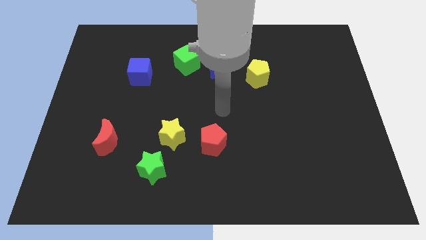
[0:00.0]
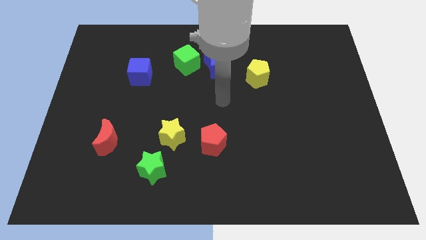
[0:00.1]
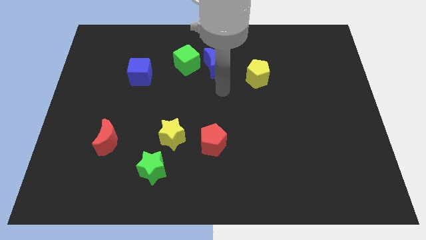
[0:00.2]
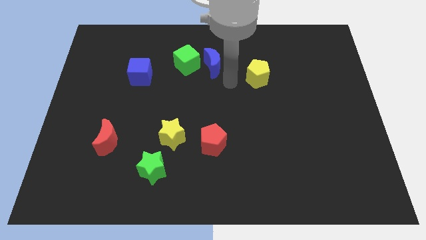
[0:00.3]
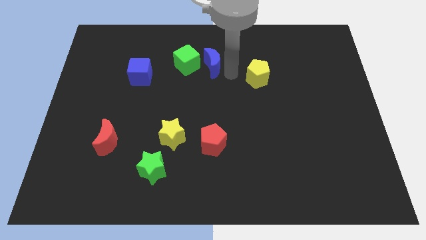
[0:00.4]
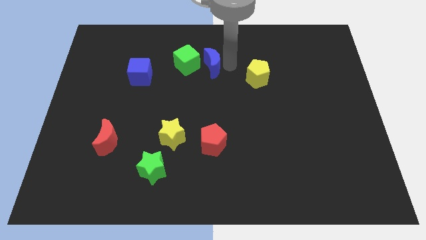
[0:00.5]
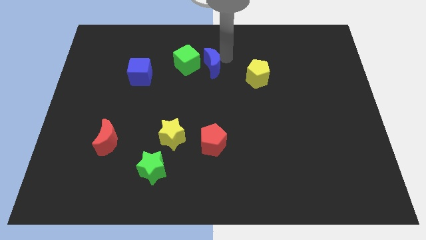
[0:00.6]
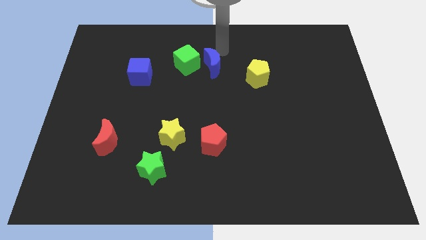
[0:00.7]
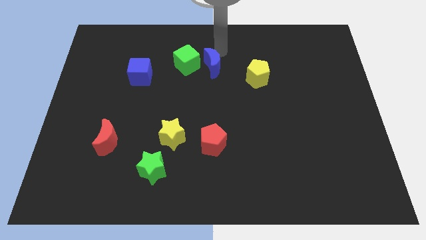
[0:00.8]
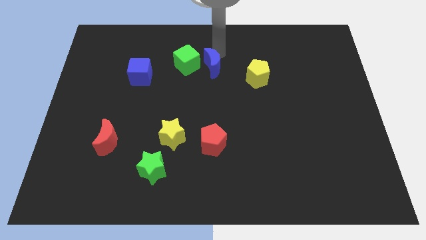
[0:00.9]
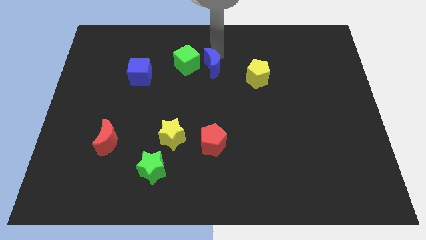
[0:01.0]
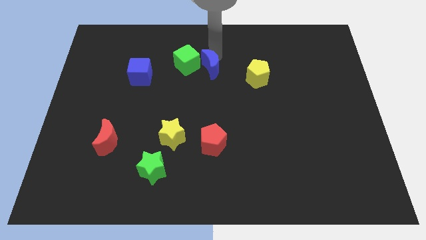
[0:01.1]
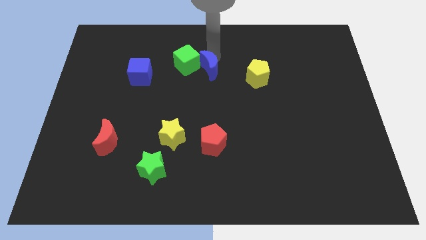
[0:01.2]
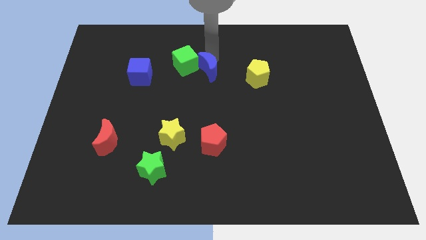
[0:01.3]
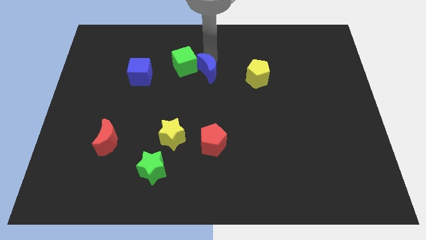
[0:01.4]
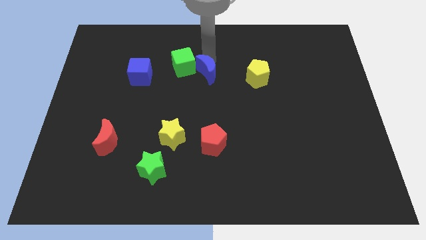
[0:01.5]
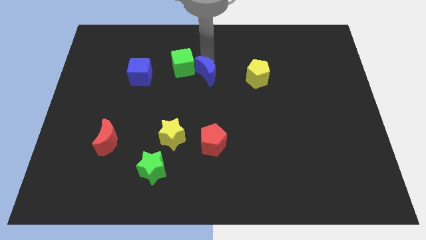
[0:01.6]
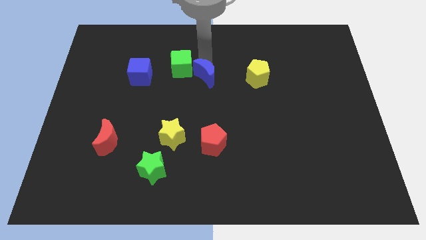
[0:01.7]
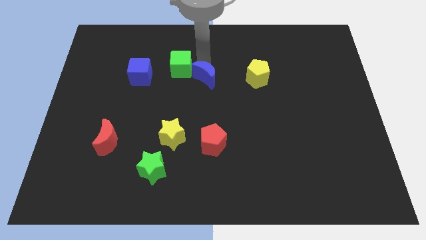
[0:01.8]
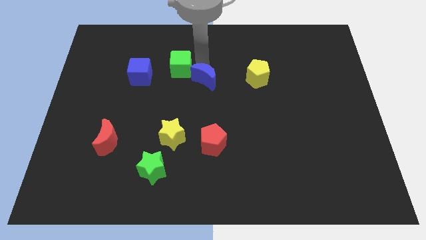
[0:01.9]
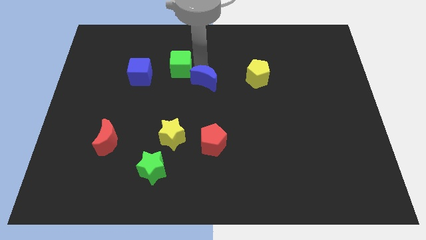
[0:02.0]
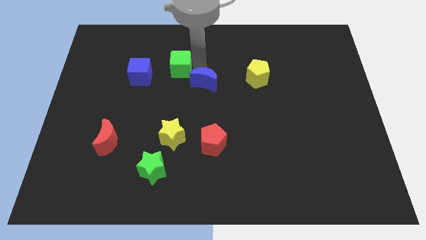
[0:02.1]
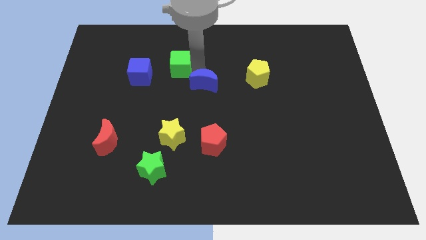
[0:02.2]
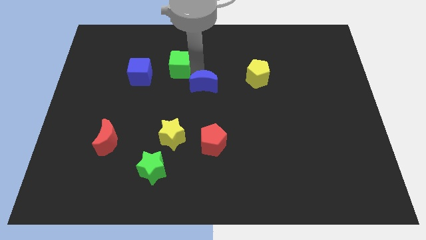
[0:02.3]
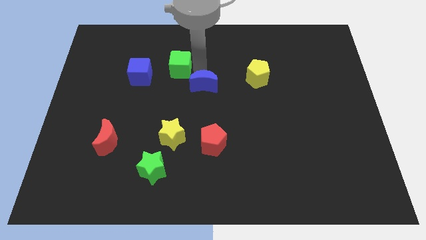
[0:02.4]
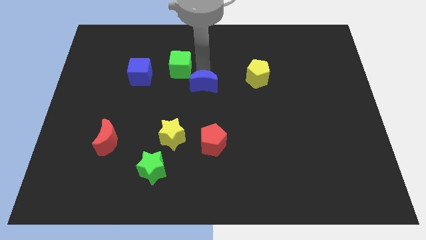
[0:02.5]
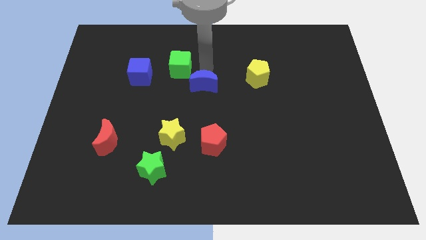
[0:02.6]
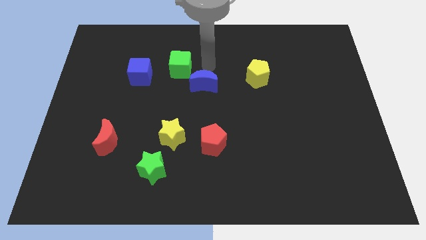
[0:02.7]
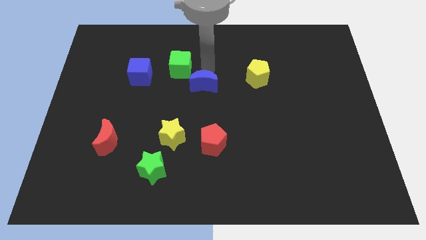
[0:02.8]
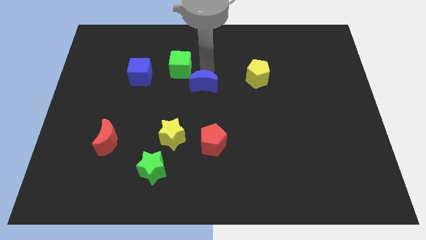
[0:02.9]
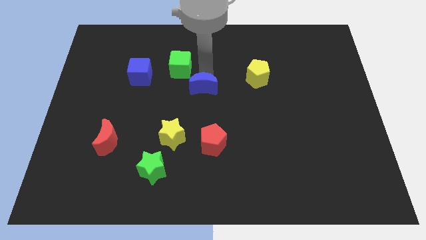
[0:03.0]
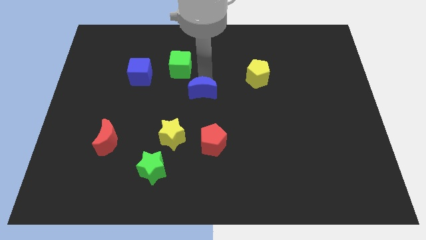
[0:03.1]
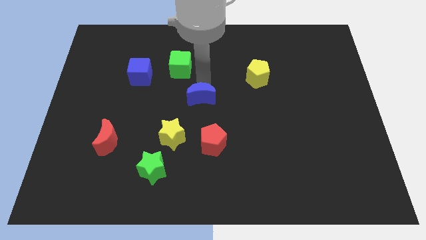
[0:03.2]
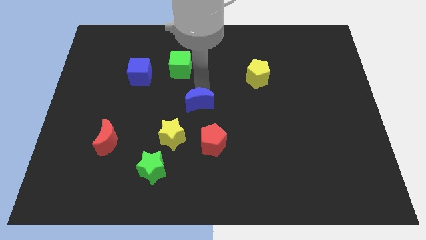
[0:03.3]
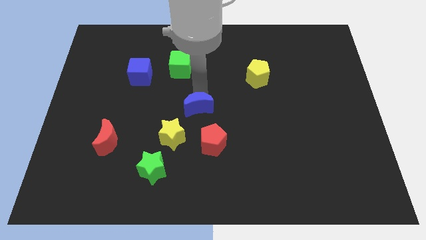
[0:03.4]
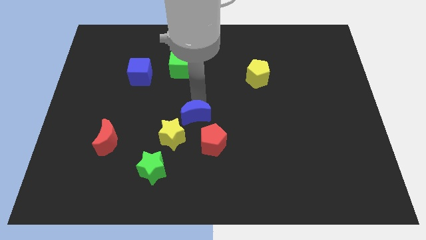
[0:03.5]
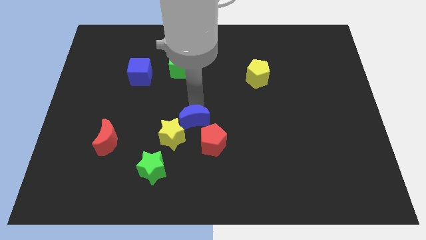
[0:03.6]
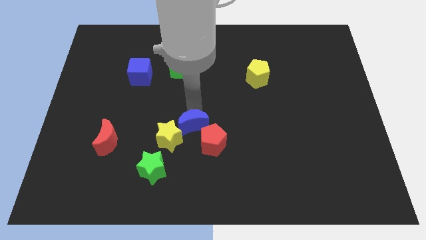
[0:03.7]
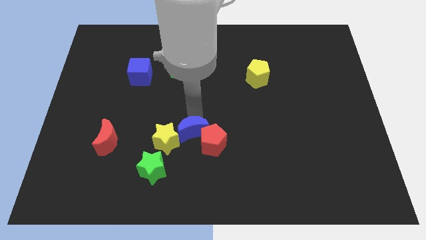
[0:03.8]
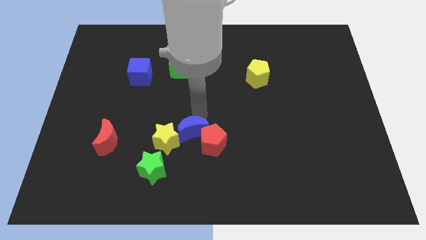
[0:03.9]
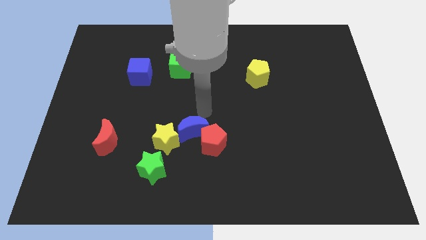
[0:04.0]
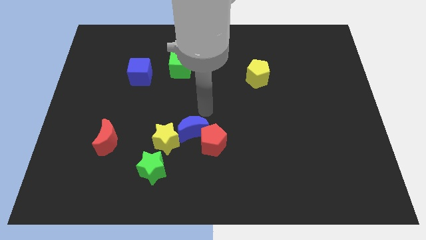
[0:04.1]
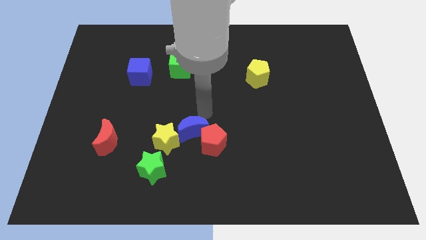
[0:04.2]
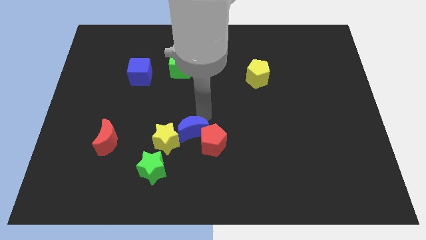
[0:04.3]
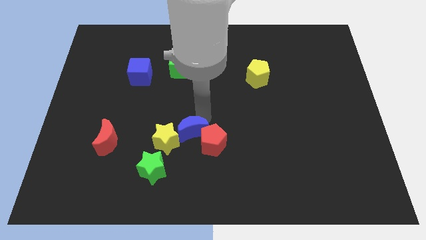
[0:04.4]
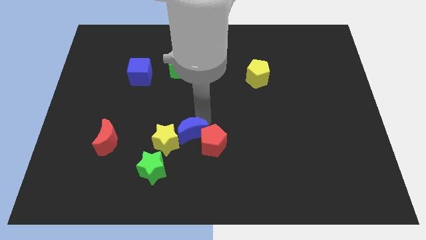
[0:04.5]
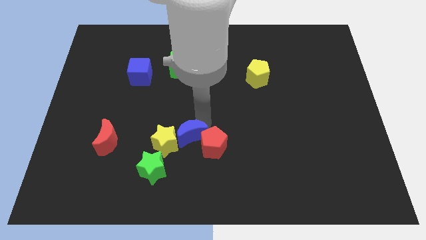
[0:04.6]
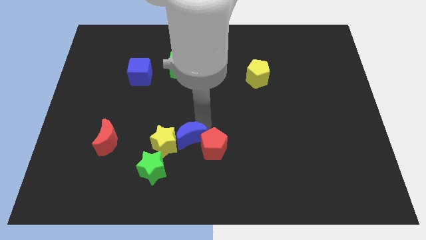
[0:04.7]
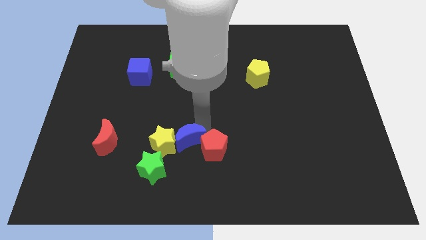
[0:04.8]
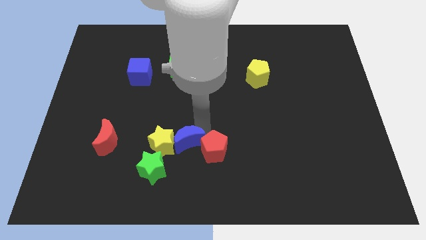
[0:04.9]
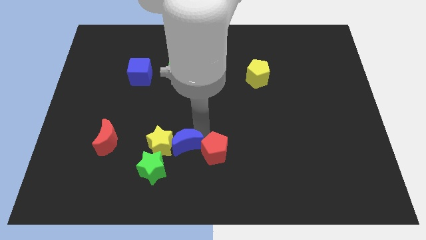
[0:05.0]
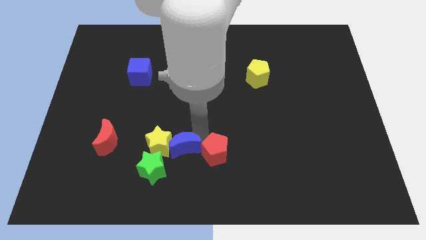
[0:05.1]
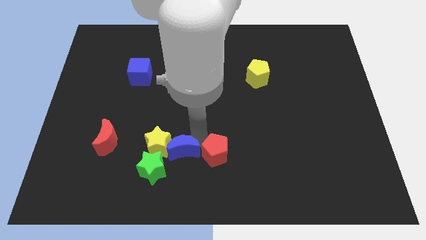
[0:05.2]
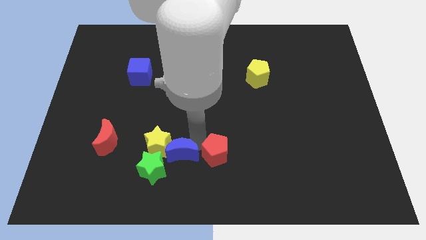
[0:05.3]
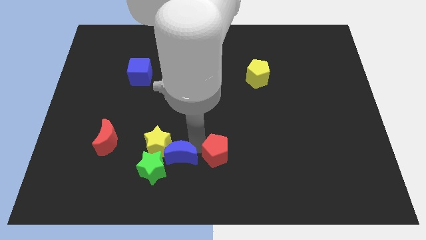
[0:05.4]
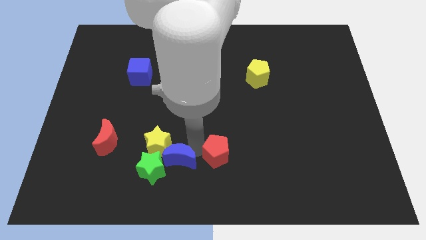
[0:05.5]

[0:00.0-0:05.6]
put the blue moon towards the green star

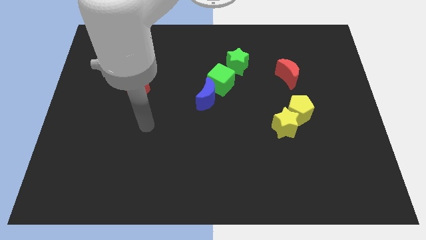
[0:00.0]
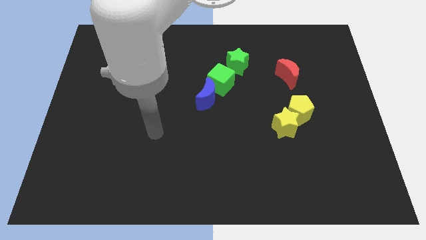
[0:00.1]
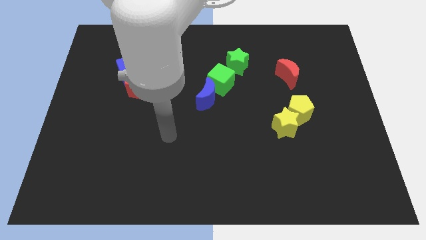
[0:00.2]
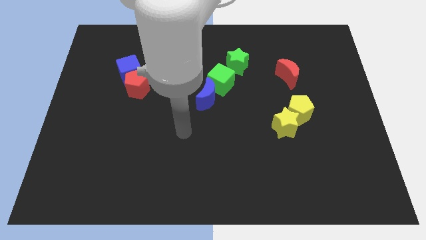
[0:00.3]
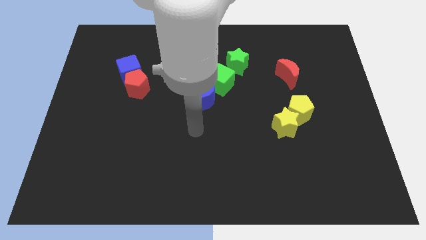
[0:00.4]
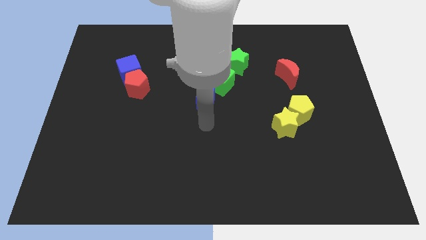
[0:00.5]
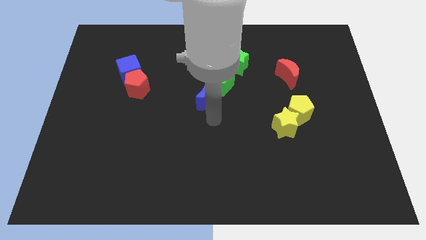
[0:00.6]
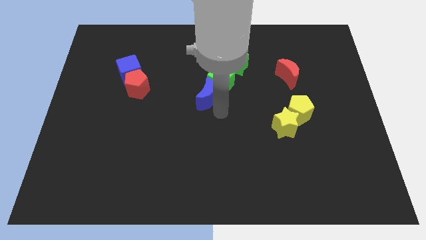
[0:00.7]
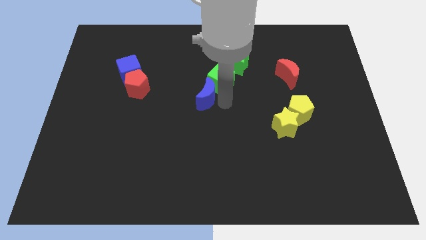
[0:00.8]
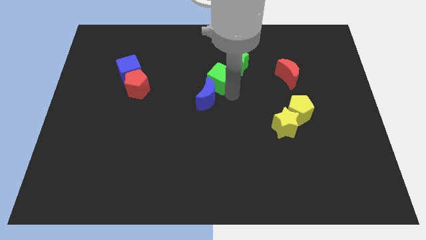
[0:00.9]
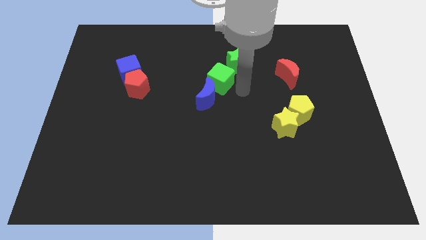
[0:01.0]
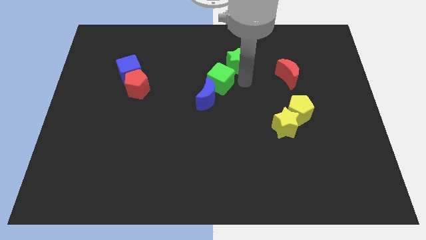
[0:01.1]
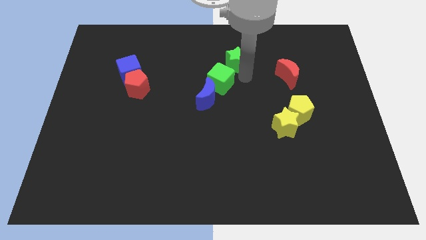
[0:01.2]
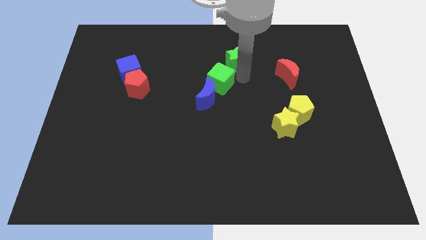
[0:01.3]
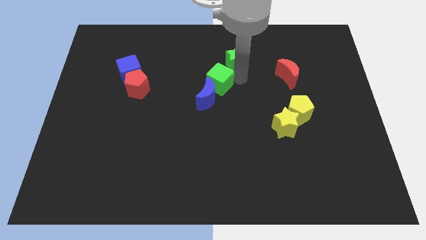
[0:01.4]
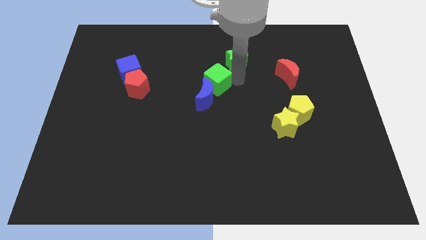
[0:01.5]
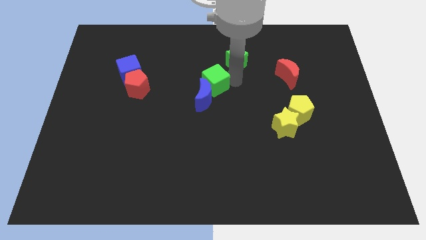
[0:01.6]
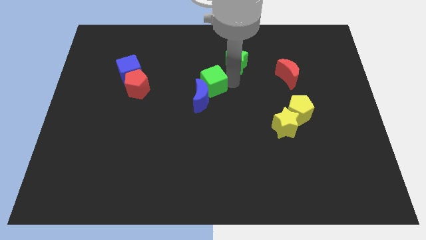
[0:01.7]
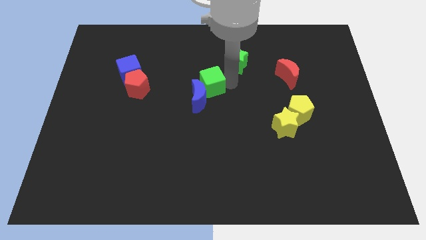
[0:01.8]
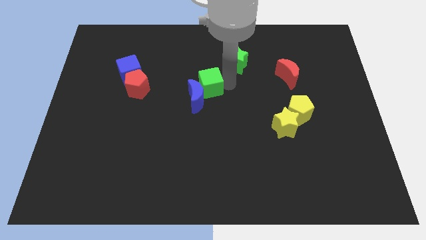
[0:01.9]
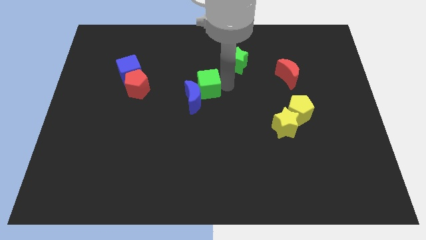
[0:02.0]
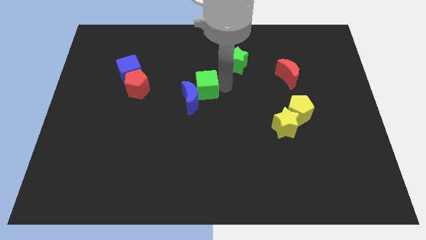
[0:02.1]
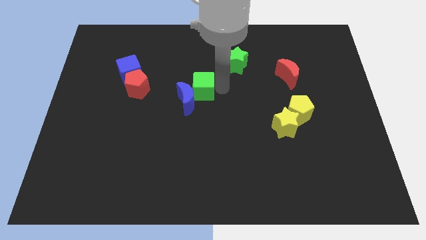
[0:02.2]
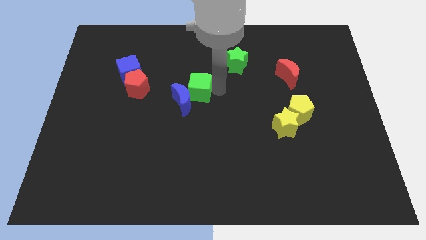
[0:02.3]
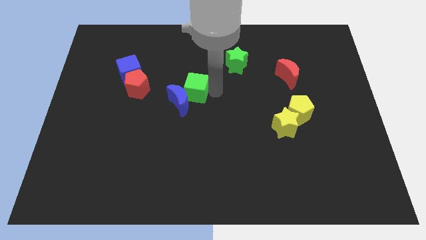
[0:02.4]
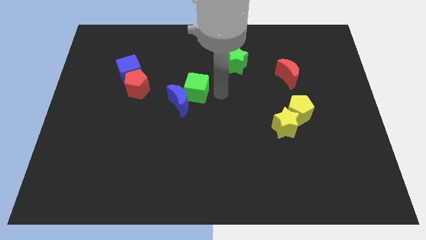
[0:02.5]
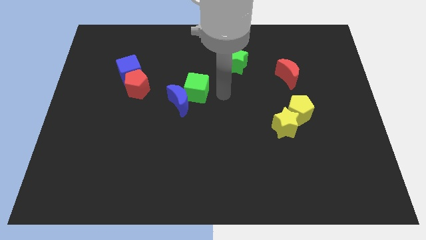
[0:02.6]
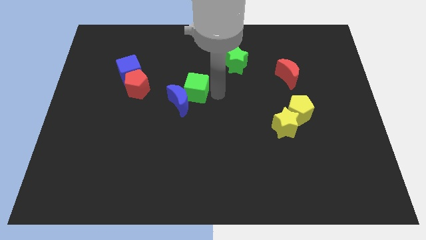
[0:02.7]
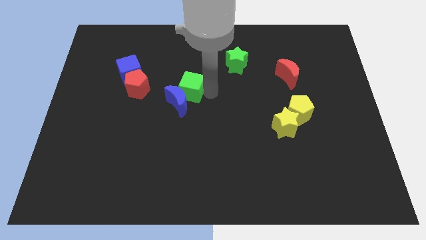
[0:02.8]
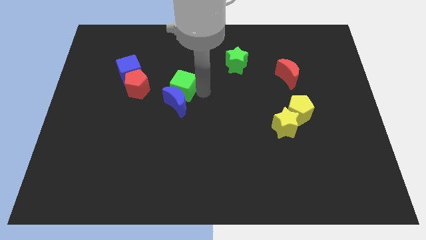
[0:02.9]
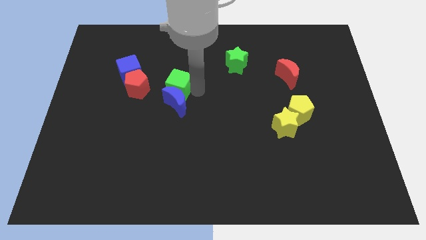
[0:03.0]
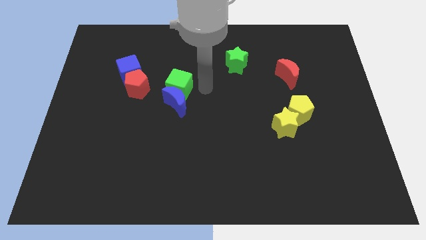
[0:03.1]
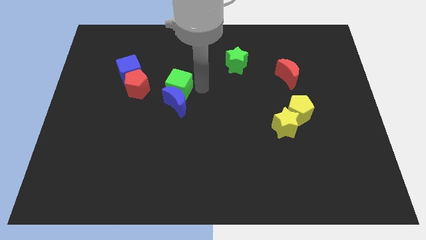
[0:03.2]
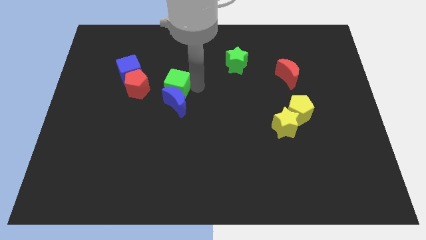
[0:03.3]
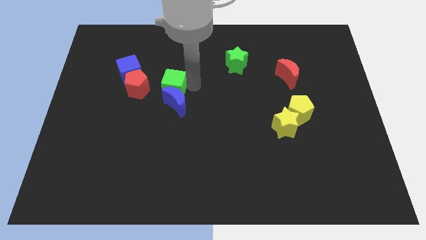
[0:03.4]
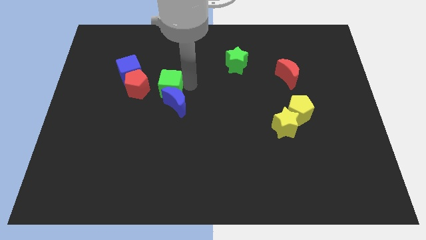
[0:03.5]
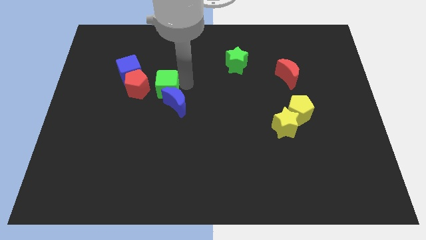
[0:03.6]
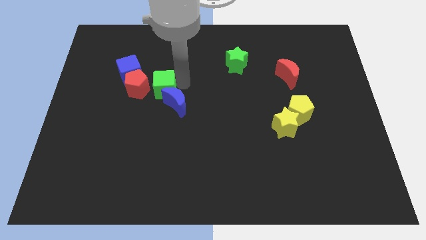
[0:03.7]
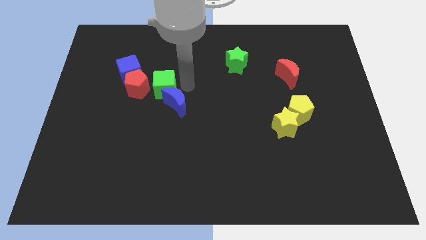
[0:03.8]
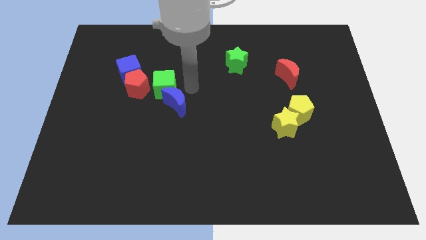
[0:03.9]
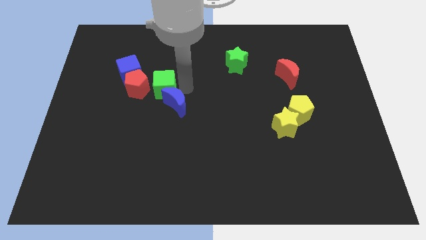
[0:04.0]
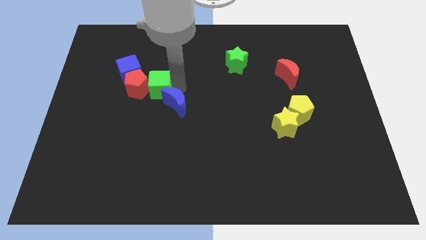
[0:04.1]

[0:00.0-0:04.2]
slide the green cube towards the red pentagon
